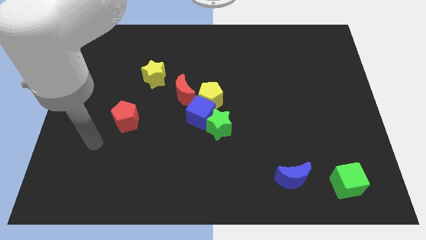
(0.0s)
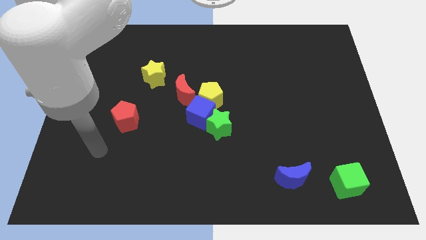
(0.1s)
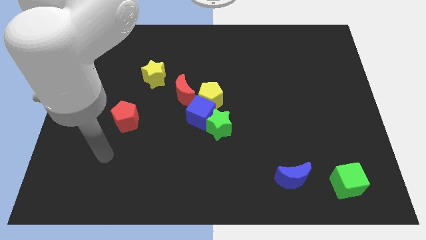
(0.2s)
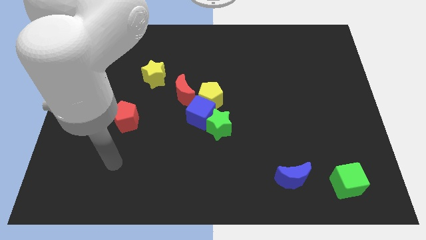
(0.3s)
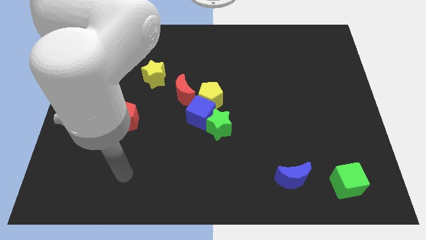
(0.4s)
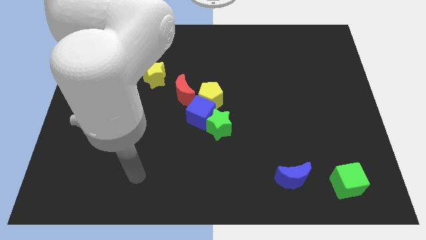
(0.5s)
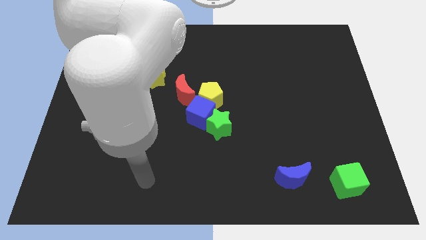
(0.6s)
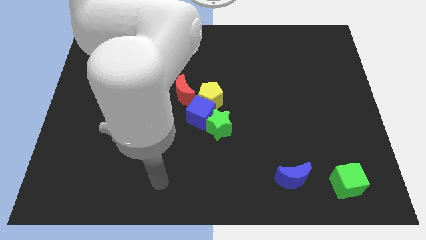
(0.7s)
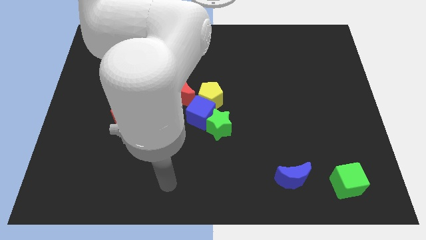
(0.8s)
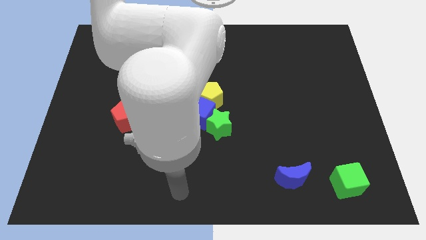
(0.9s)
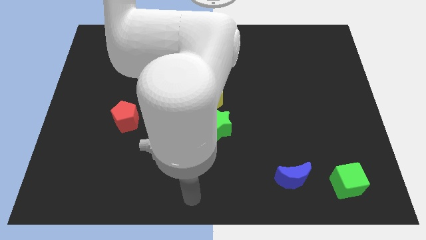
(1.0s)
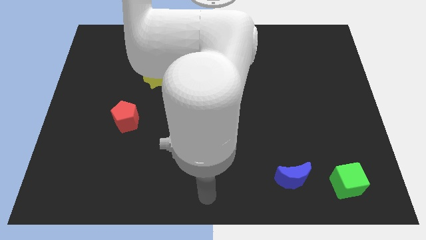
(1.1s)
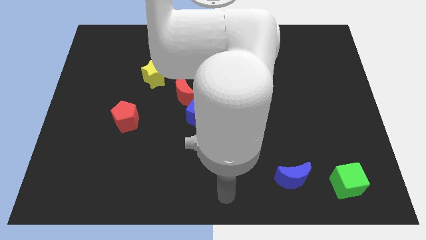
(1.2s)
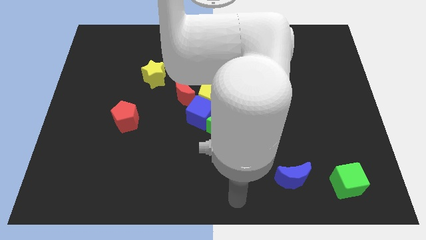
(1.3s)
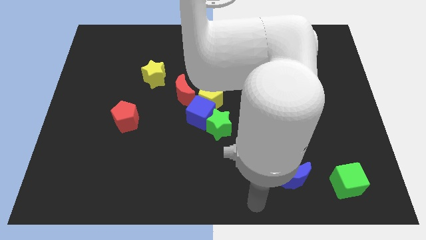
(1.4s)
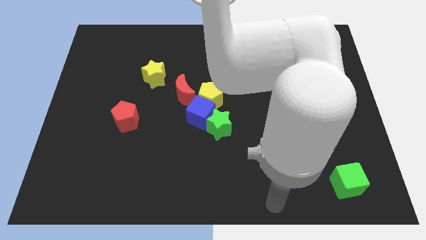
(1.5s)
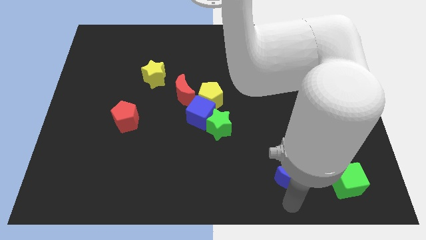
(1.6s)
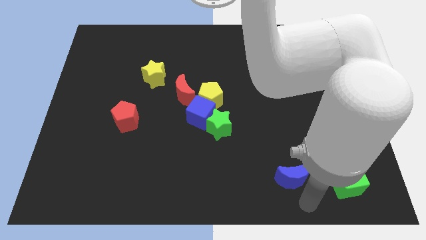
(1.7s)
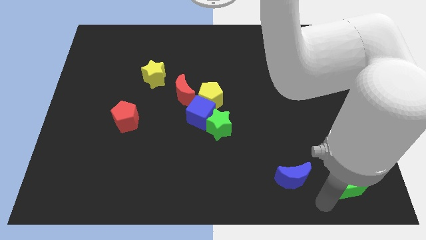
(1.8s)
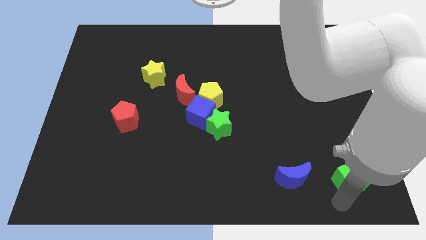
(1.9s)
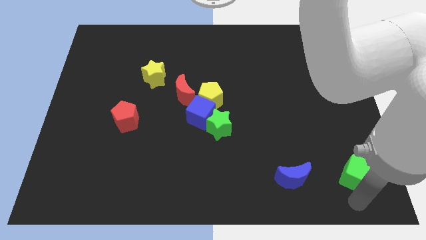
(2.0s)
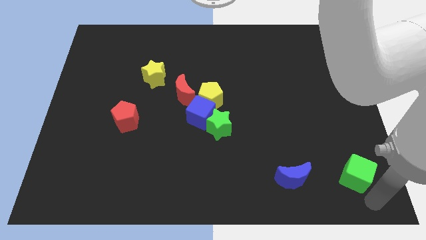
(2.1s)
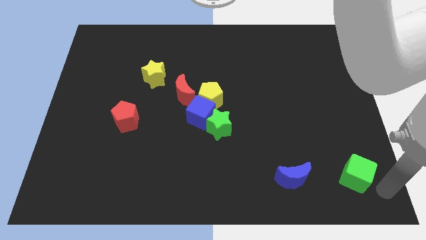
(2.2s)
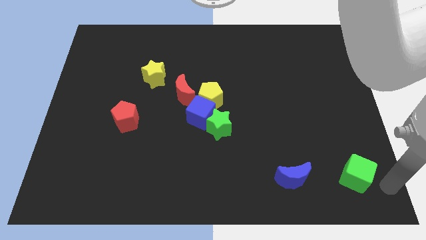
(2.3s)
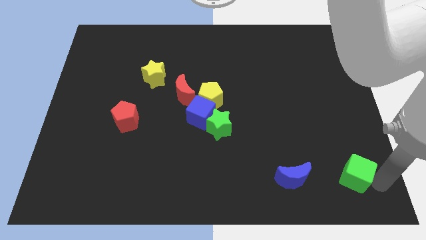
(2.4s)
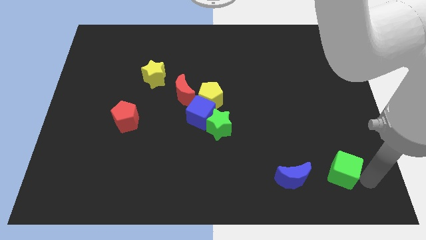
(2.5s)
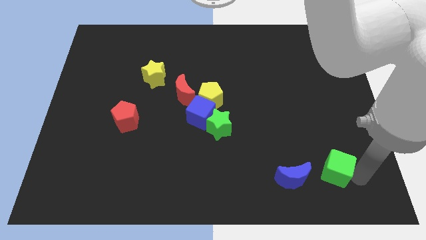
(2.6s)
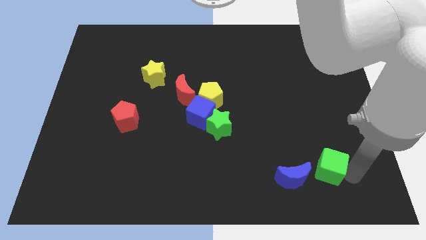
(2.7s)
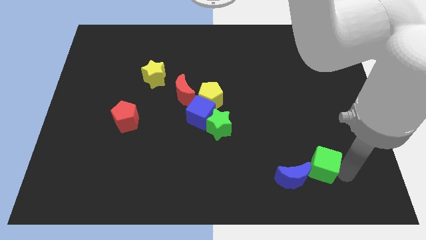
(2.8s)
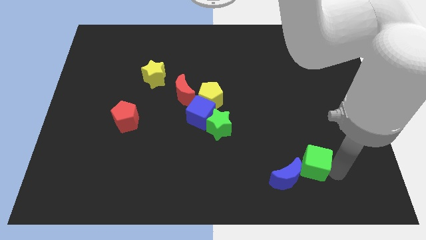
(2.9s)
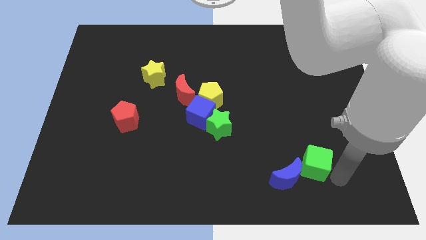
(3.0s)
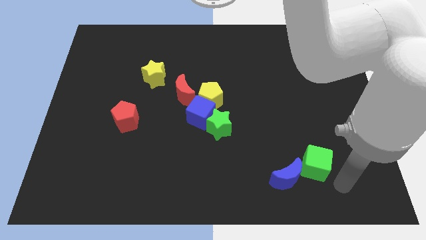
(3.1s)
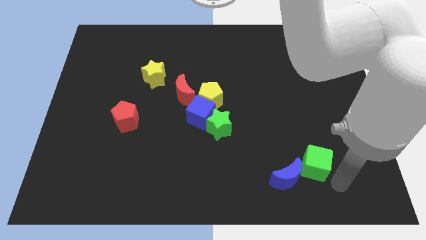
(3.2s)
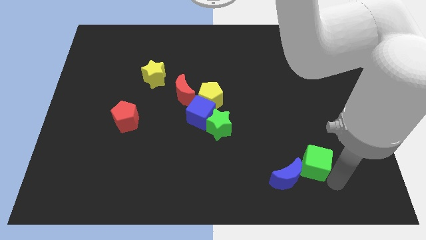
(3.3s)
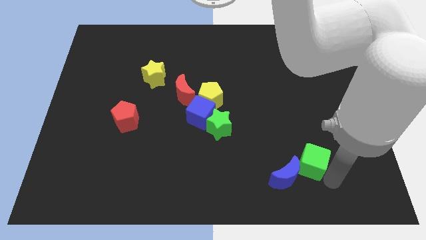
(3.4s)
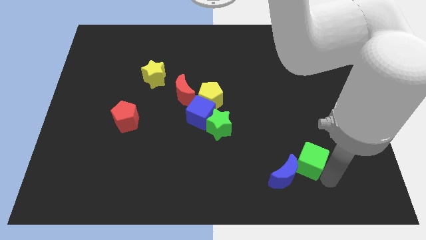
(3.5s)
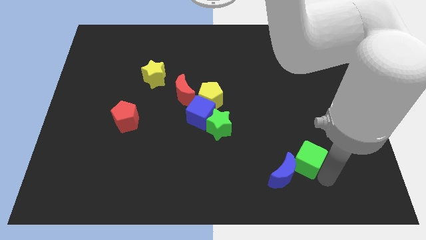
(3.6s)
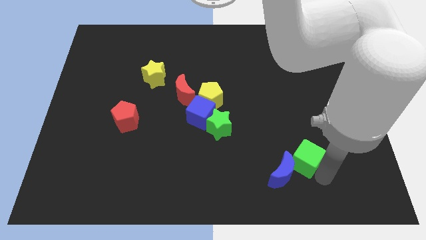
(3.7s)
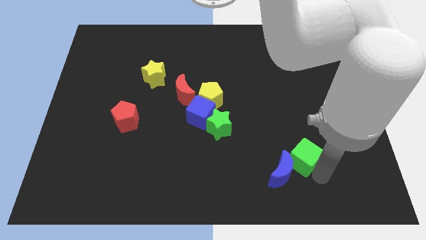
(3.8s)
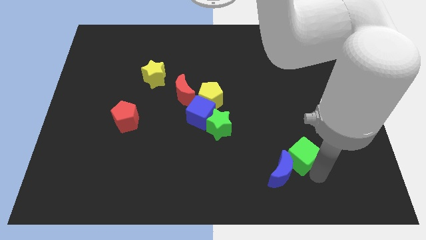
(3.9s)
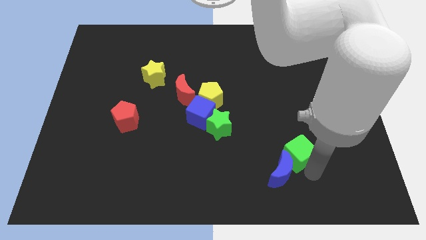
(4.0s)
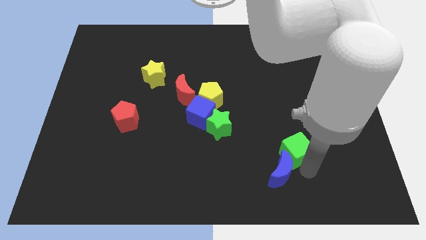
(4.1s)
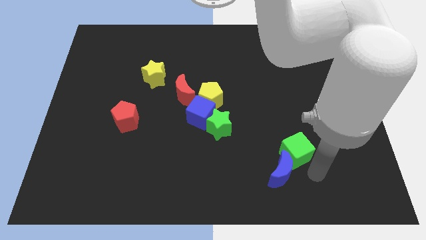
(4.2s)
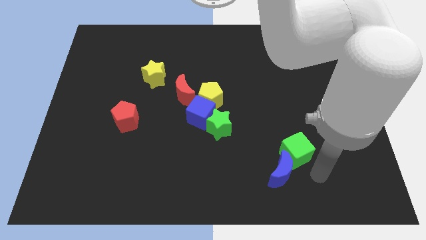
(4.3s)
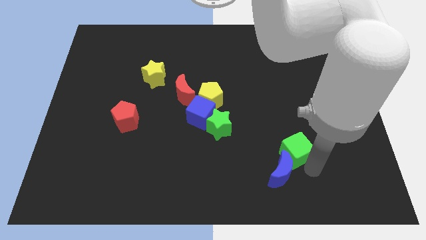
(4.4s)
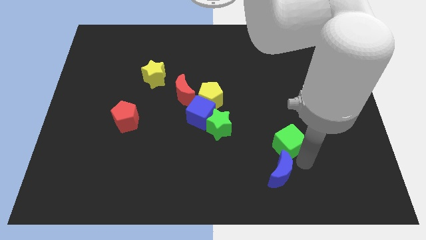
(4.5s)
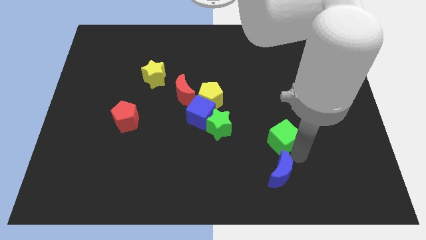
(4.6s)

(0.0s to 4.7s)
push the green cube to the right side of the green star

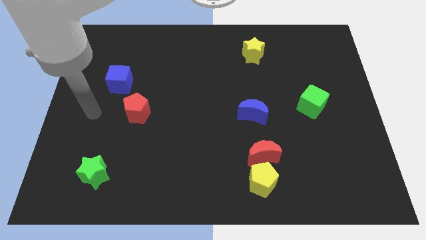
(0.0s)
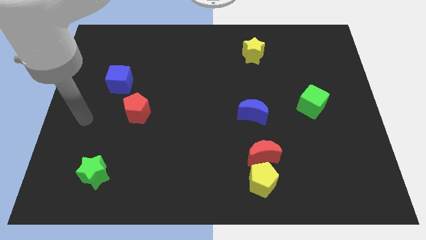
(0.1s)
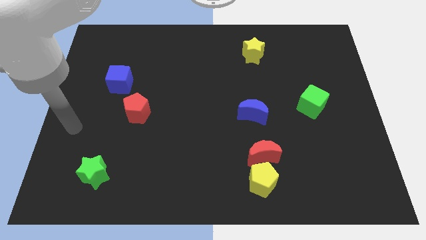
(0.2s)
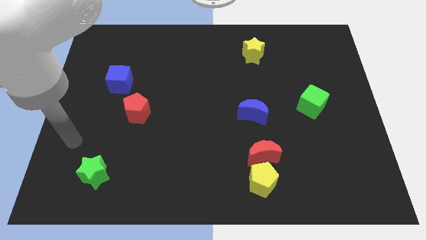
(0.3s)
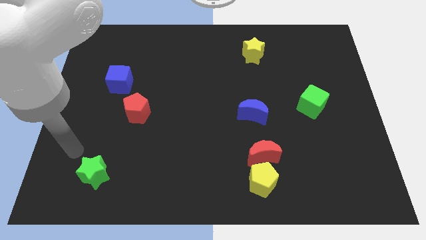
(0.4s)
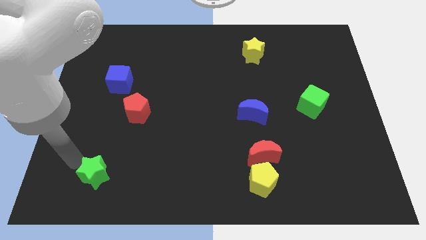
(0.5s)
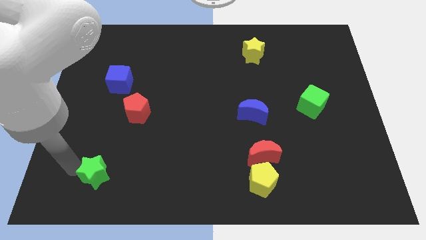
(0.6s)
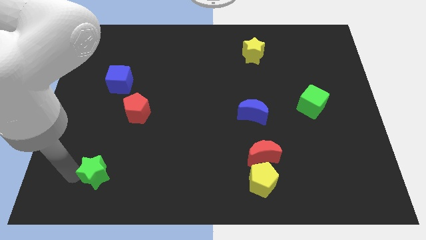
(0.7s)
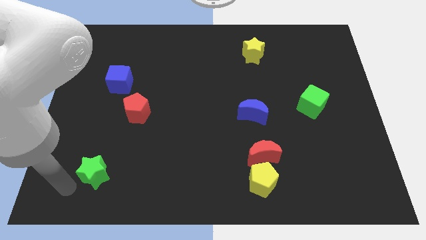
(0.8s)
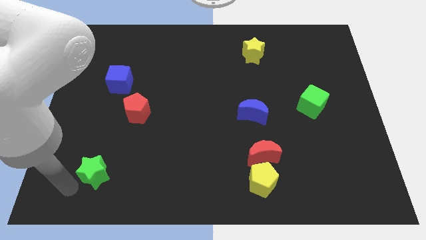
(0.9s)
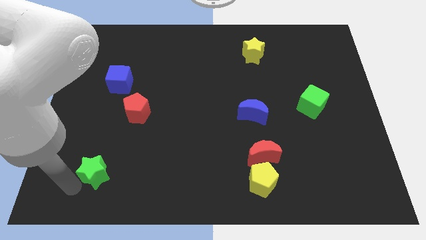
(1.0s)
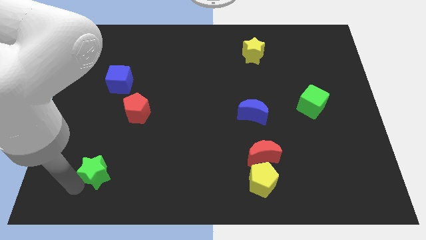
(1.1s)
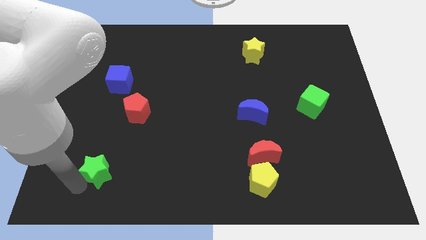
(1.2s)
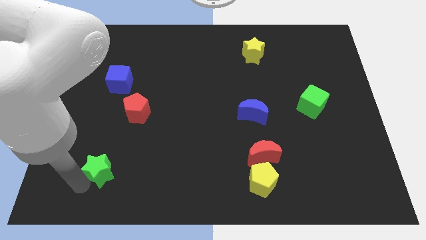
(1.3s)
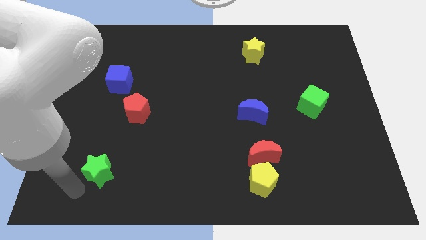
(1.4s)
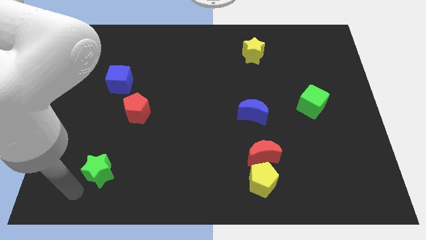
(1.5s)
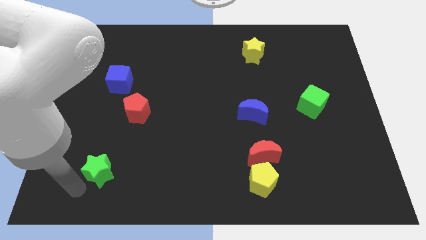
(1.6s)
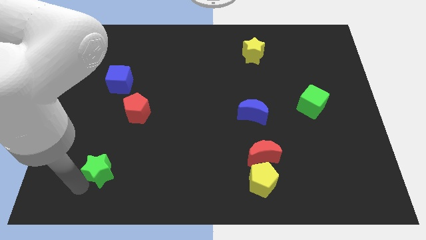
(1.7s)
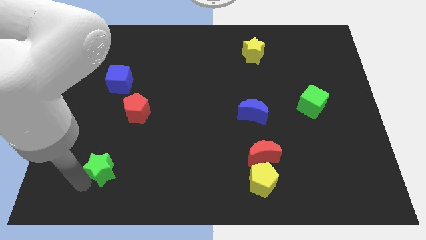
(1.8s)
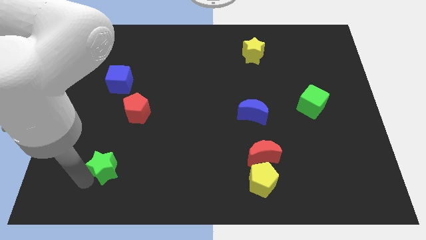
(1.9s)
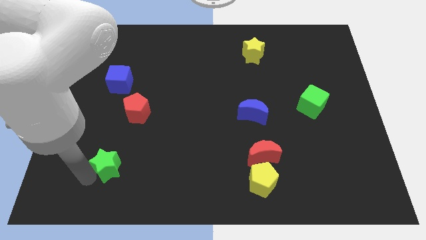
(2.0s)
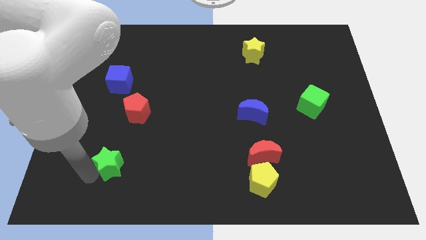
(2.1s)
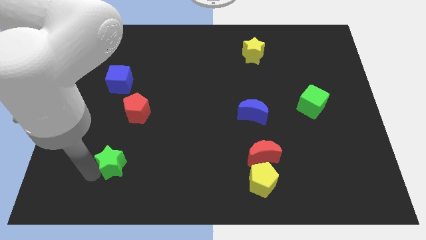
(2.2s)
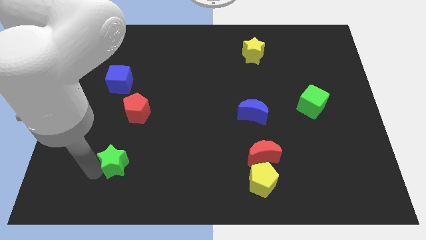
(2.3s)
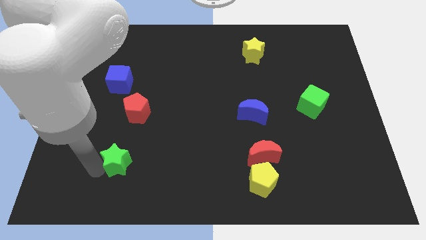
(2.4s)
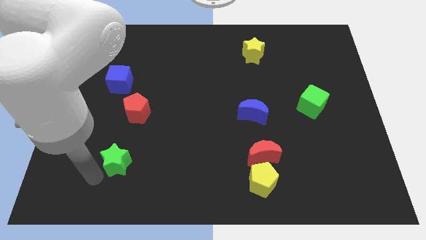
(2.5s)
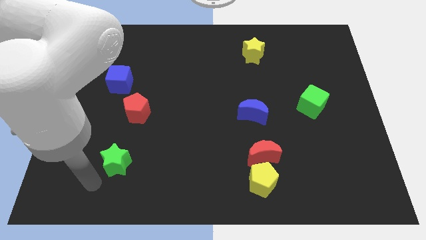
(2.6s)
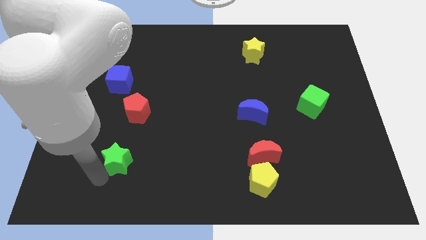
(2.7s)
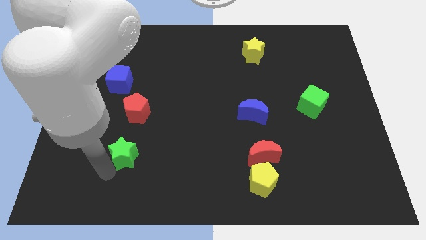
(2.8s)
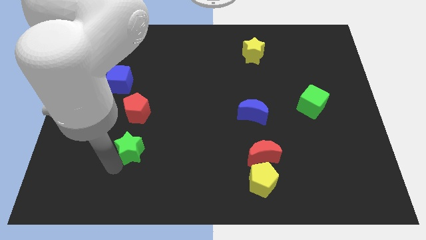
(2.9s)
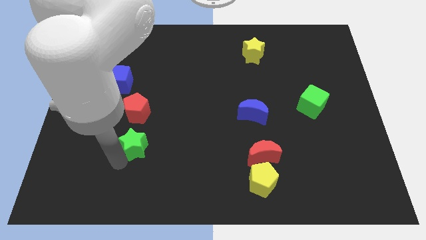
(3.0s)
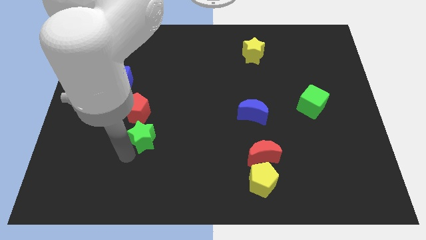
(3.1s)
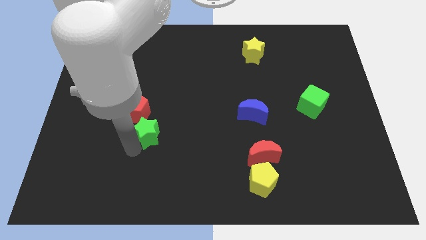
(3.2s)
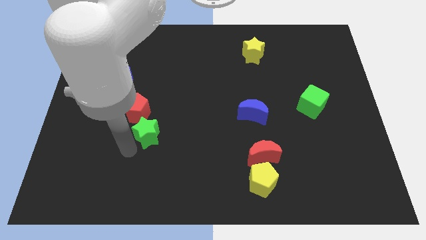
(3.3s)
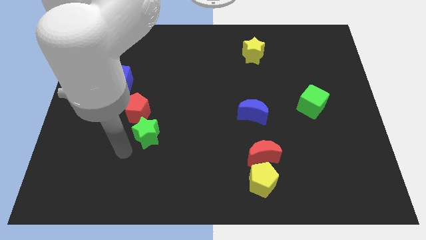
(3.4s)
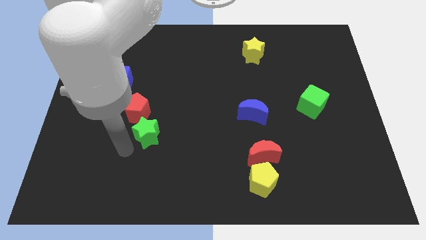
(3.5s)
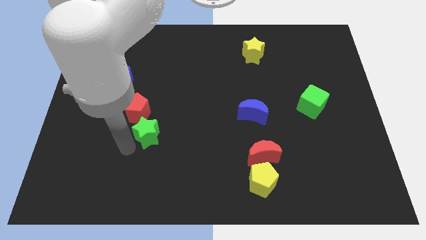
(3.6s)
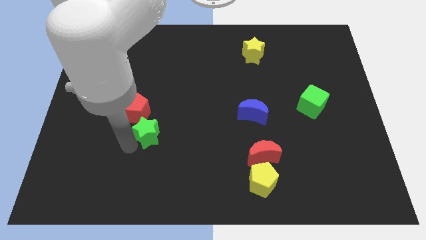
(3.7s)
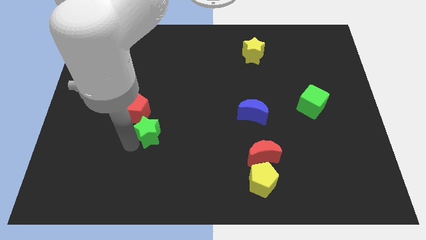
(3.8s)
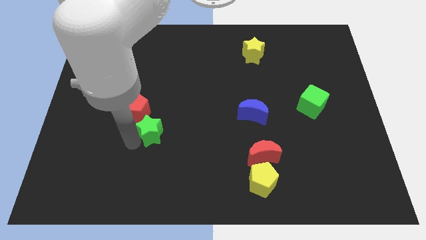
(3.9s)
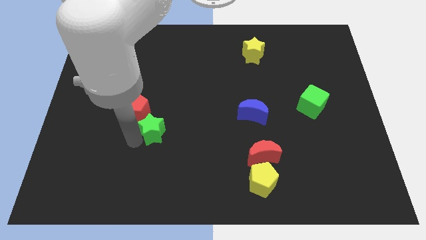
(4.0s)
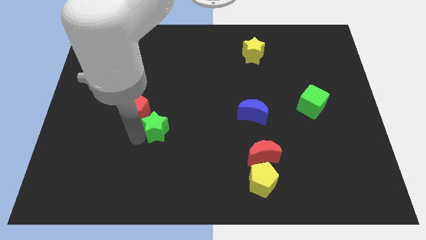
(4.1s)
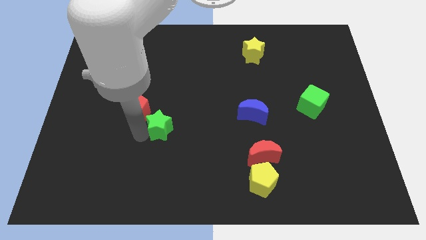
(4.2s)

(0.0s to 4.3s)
move the green star right of the red pentagon
